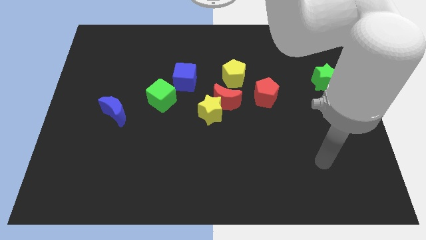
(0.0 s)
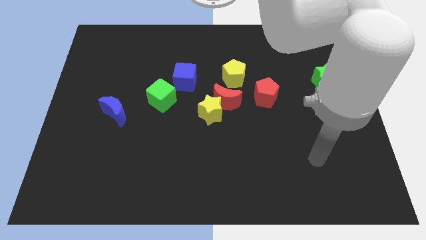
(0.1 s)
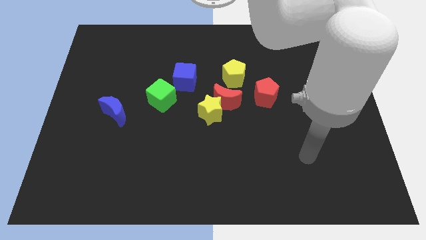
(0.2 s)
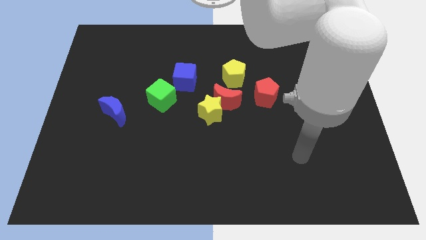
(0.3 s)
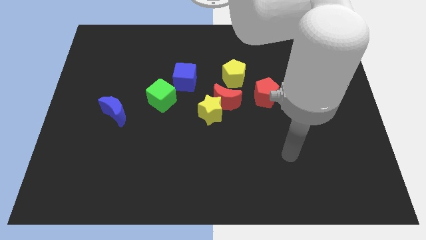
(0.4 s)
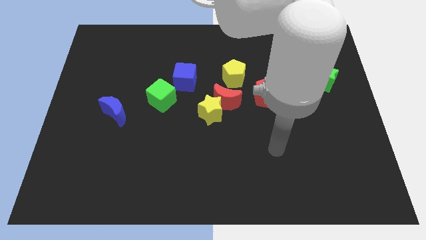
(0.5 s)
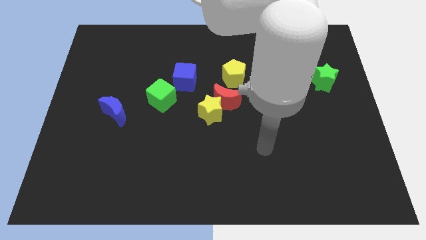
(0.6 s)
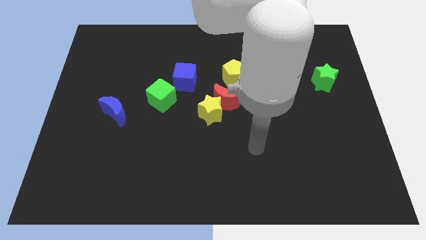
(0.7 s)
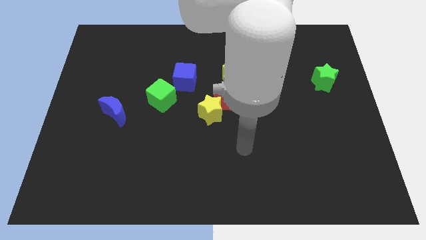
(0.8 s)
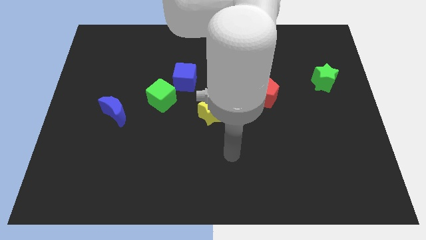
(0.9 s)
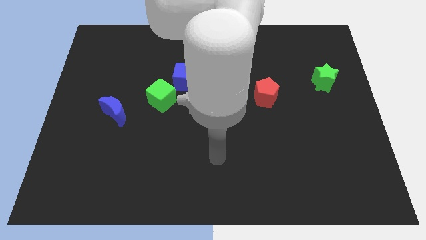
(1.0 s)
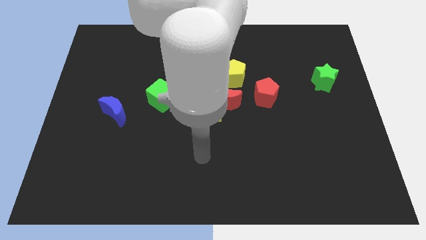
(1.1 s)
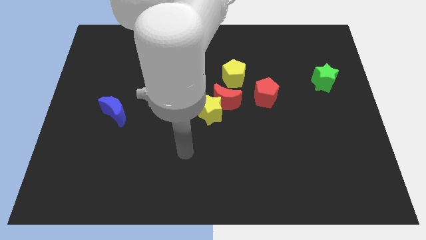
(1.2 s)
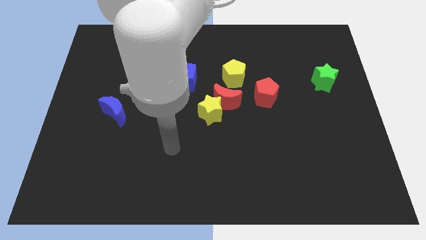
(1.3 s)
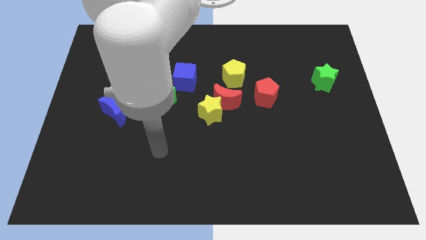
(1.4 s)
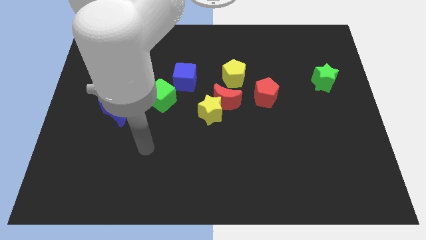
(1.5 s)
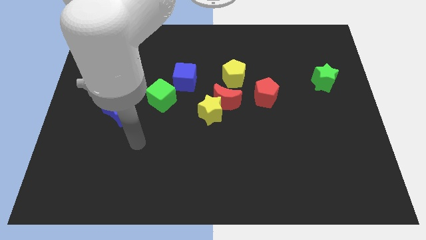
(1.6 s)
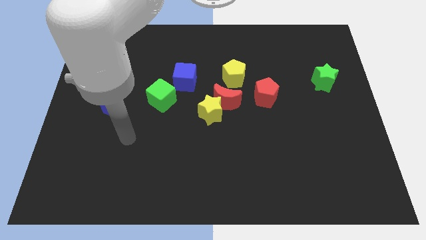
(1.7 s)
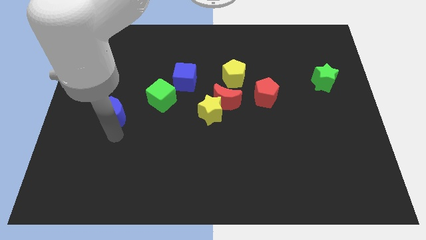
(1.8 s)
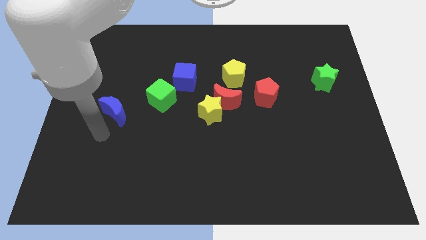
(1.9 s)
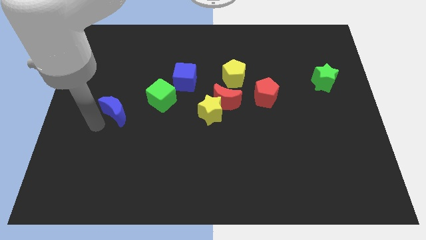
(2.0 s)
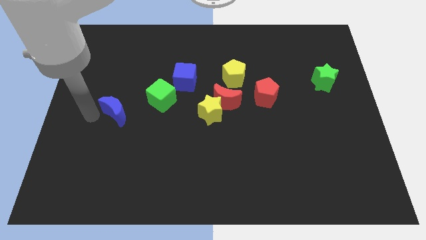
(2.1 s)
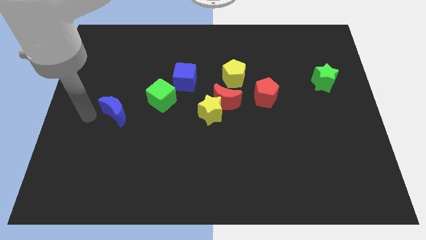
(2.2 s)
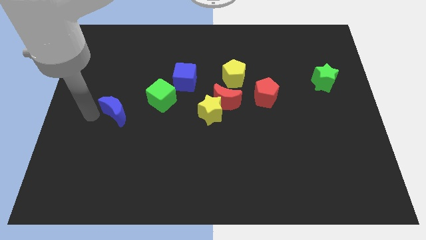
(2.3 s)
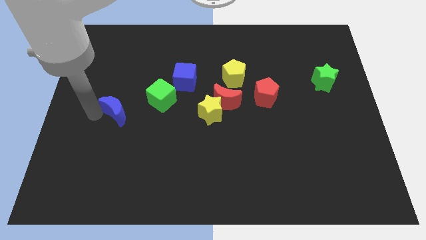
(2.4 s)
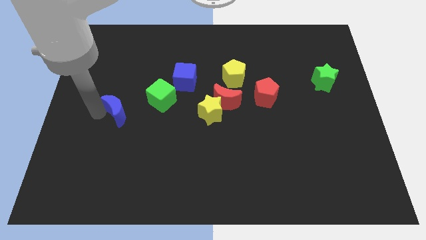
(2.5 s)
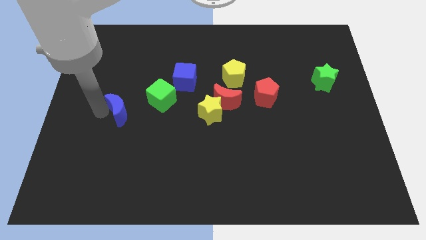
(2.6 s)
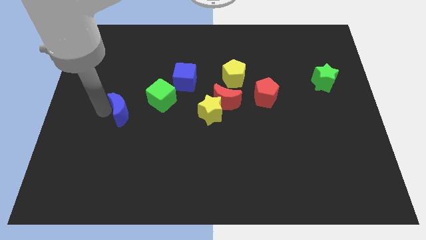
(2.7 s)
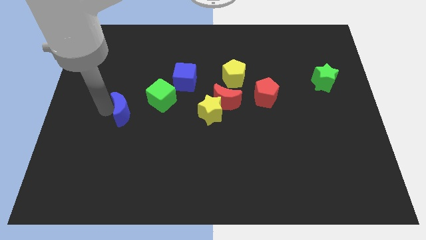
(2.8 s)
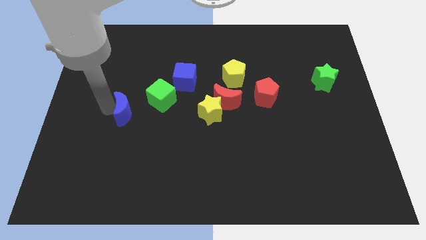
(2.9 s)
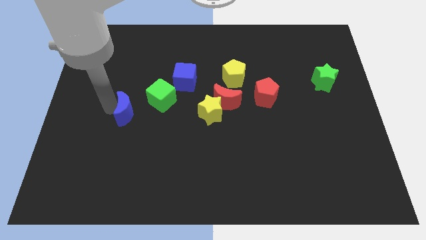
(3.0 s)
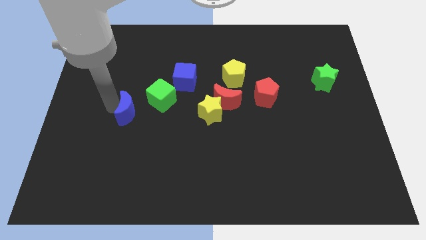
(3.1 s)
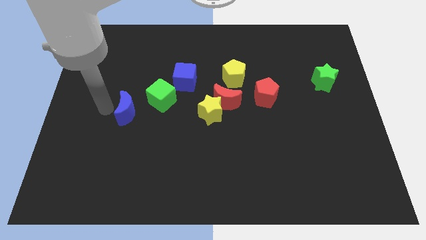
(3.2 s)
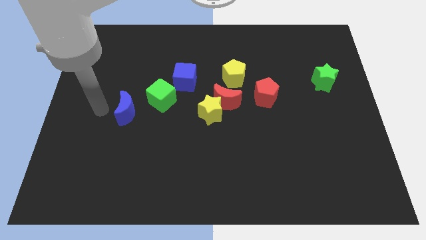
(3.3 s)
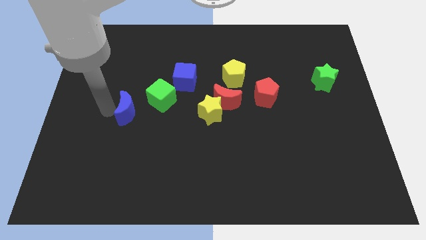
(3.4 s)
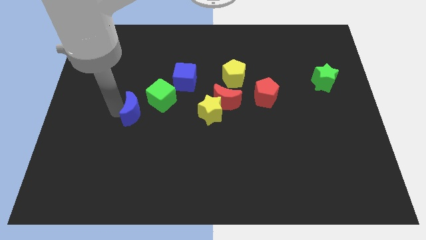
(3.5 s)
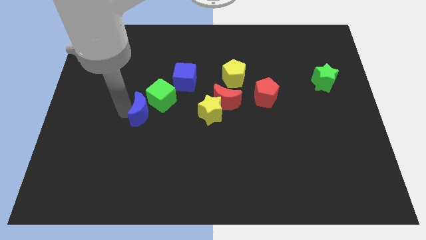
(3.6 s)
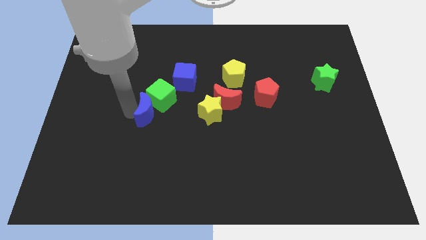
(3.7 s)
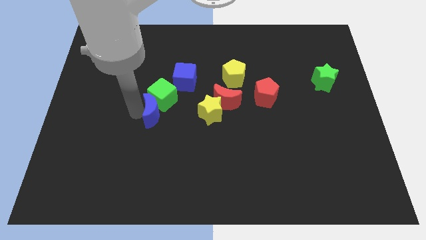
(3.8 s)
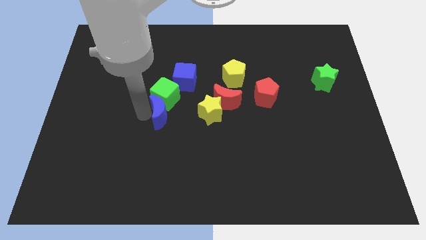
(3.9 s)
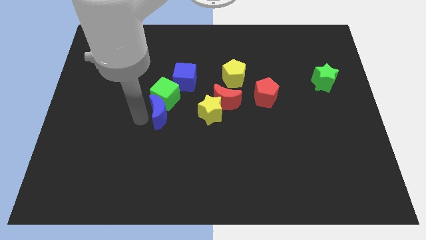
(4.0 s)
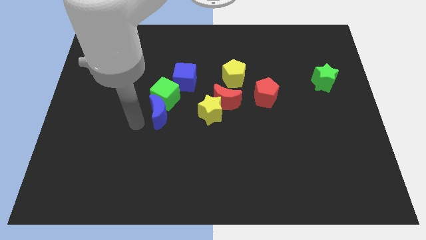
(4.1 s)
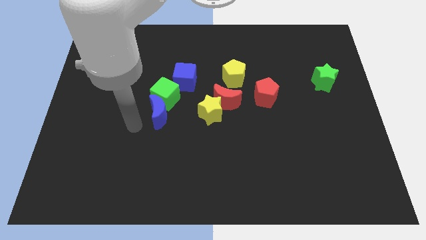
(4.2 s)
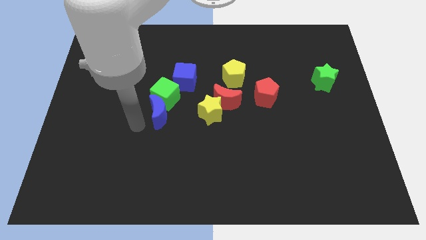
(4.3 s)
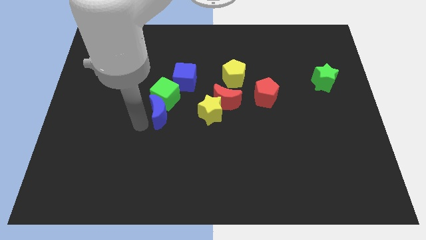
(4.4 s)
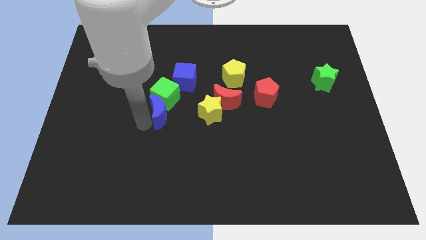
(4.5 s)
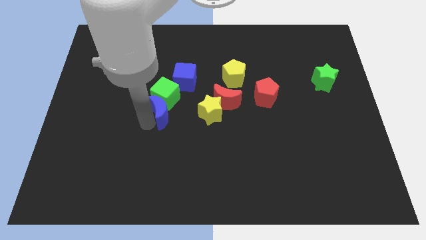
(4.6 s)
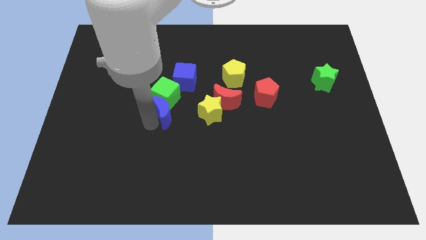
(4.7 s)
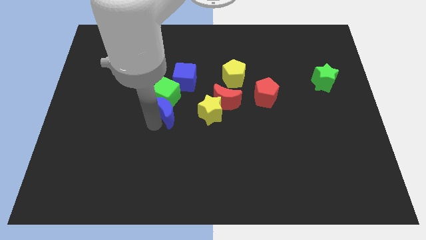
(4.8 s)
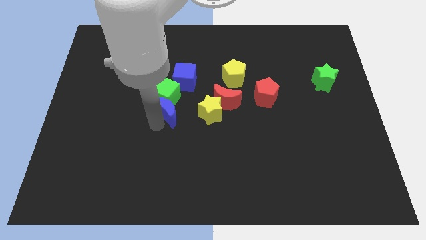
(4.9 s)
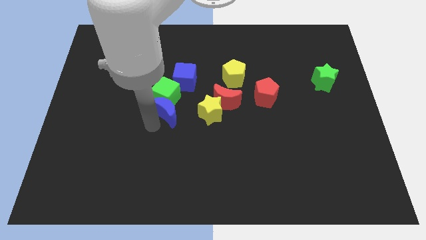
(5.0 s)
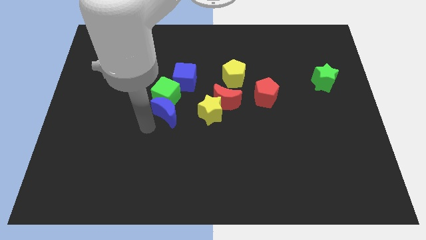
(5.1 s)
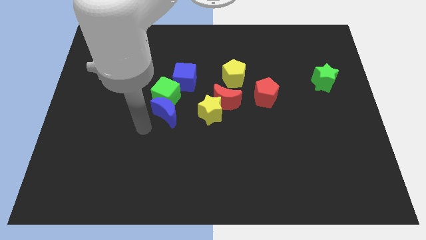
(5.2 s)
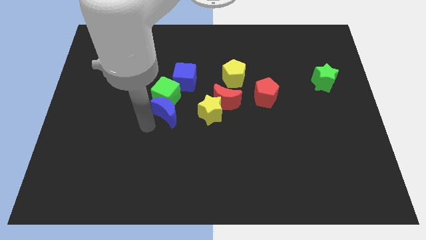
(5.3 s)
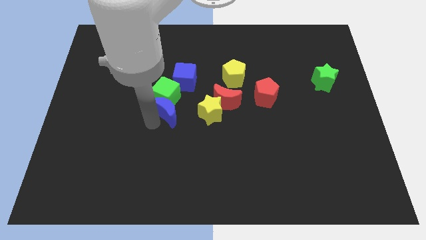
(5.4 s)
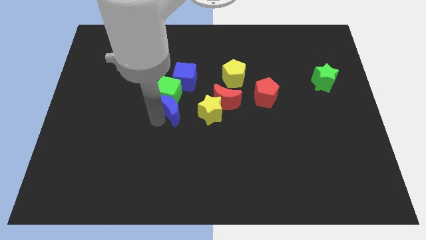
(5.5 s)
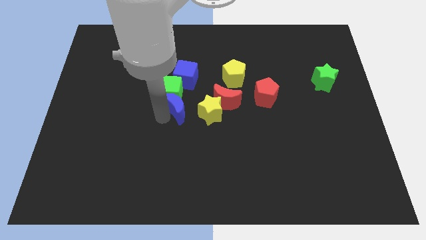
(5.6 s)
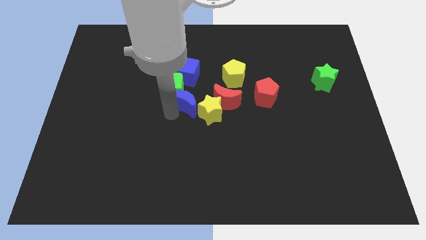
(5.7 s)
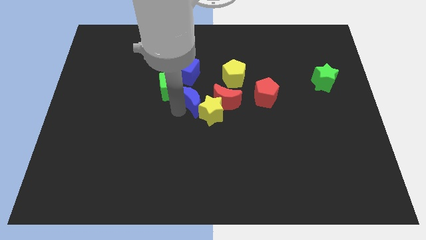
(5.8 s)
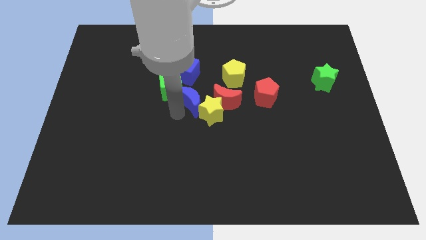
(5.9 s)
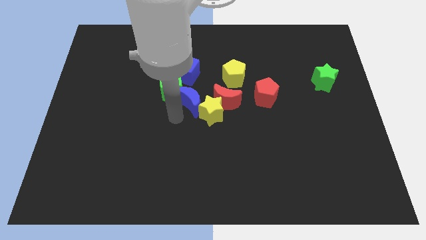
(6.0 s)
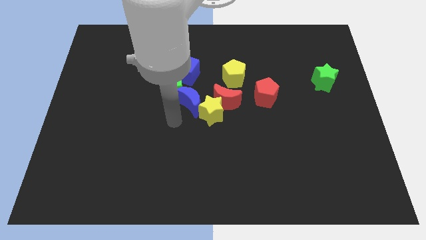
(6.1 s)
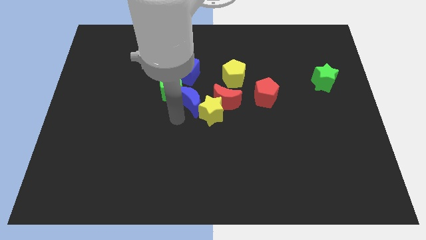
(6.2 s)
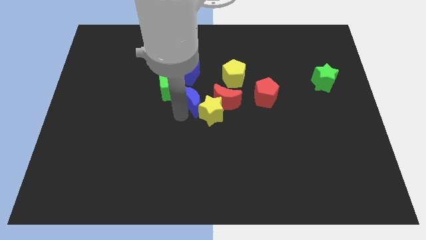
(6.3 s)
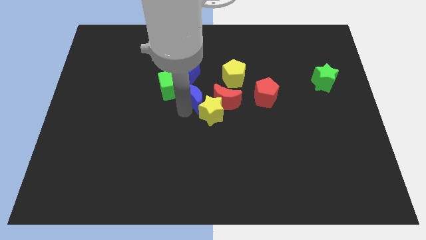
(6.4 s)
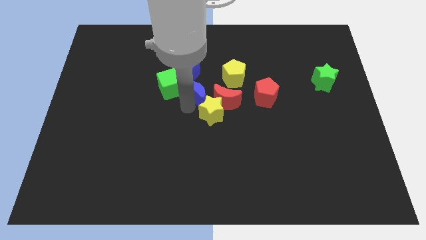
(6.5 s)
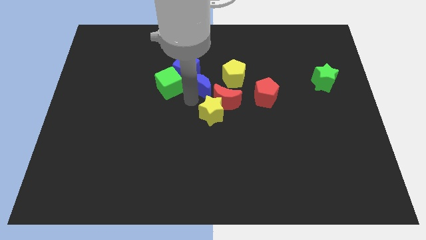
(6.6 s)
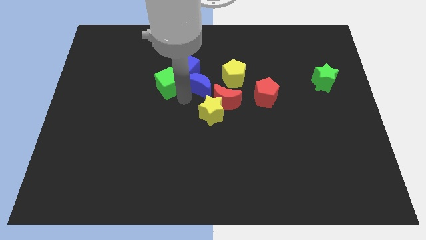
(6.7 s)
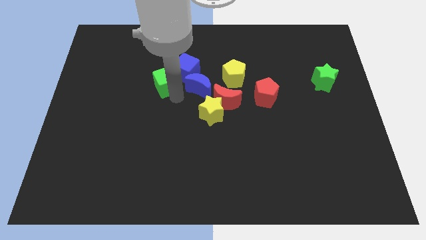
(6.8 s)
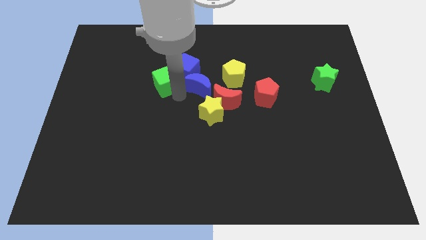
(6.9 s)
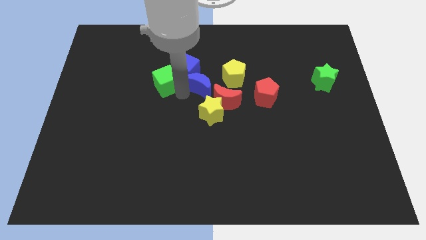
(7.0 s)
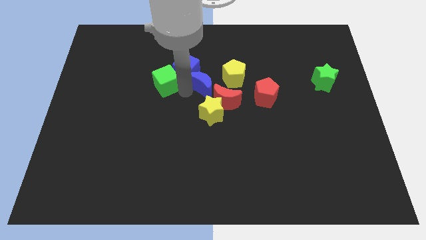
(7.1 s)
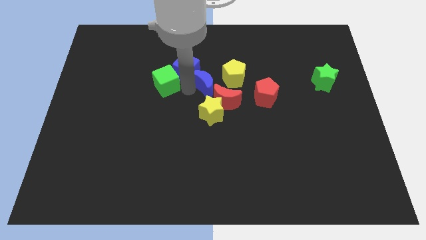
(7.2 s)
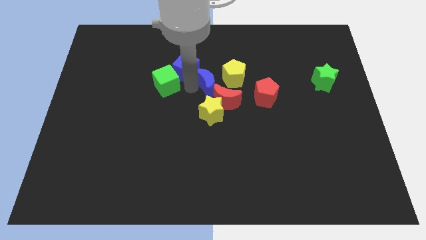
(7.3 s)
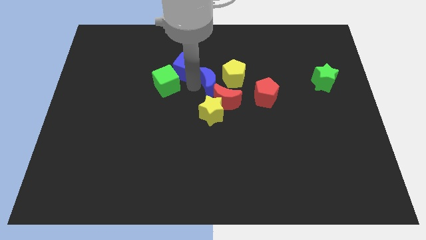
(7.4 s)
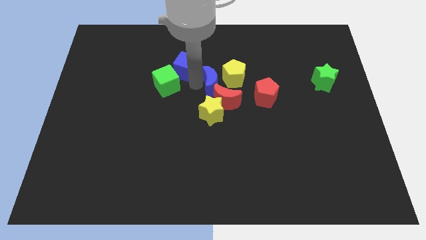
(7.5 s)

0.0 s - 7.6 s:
slide the blue moon next to the yellow pentagon

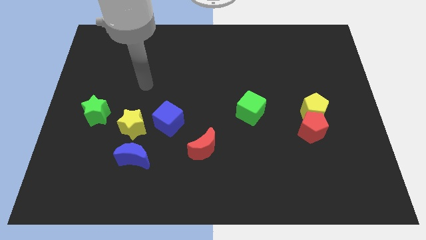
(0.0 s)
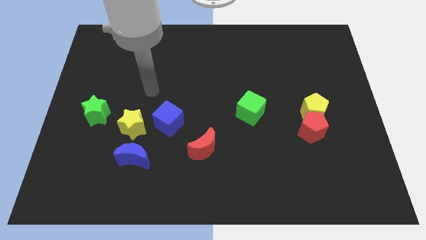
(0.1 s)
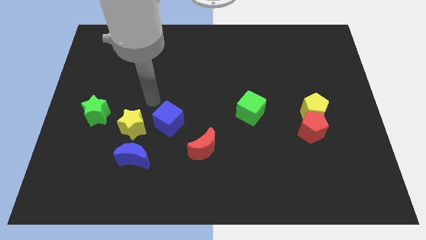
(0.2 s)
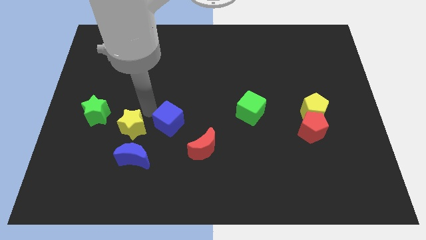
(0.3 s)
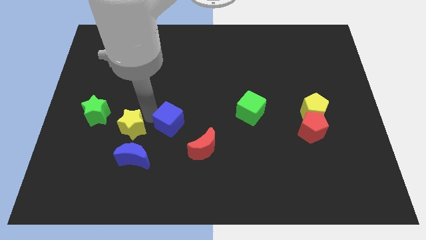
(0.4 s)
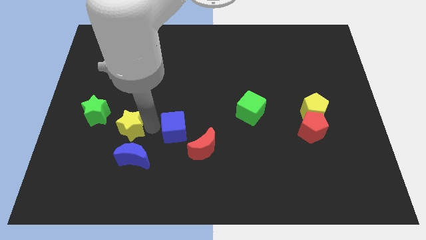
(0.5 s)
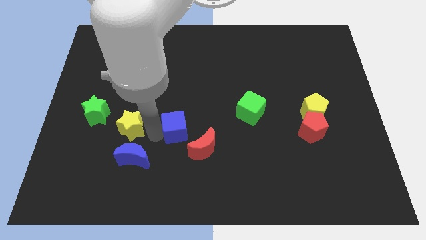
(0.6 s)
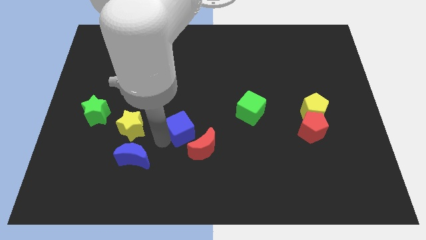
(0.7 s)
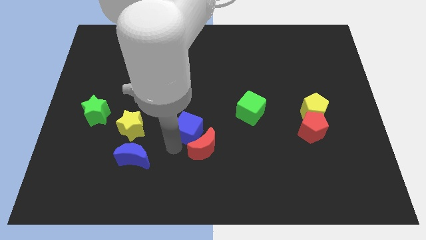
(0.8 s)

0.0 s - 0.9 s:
slide the red moon next to the blue cube
